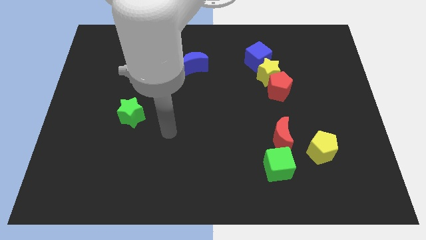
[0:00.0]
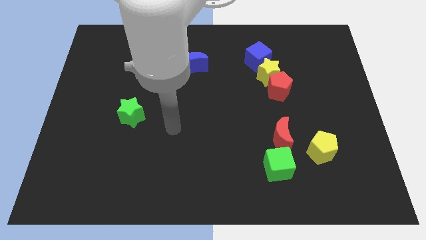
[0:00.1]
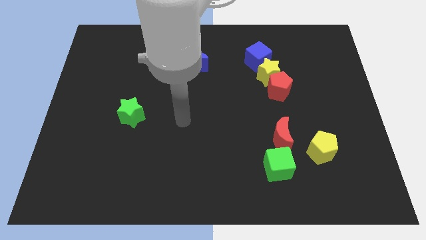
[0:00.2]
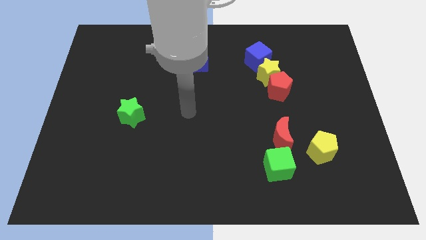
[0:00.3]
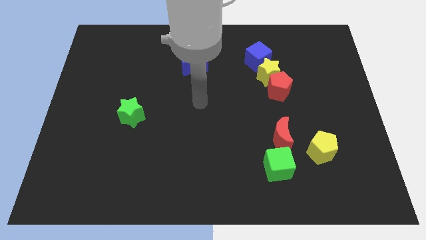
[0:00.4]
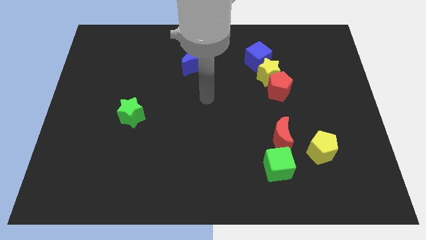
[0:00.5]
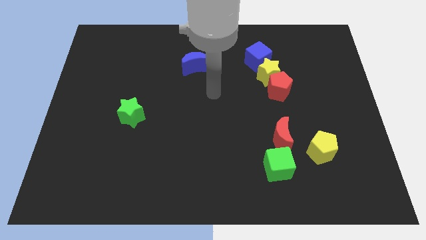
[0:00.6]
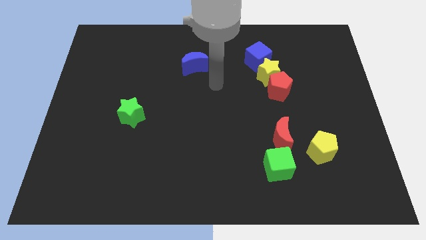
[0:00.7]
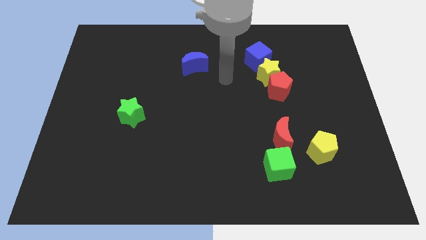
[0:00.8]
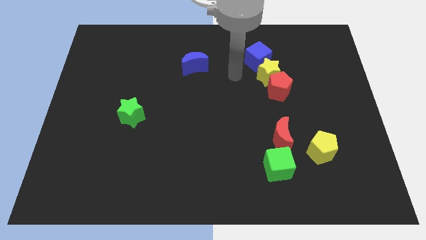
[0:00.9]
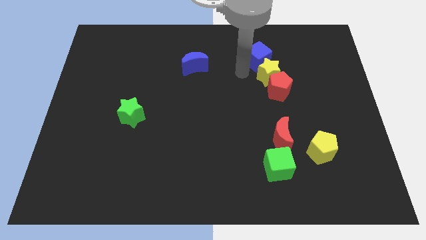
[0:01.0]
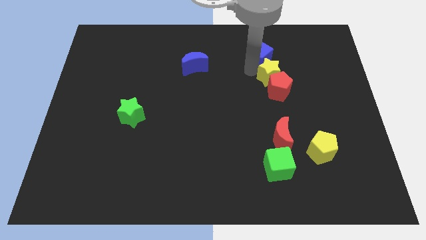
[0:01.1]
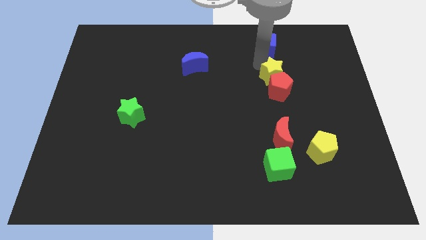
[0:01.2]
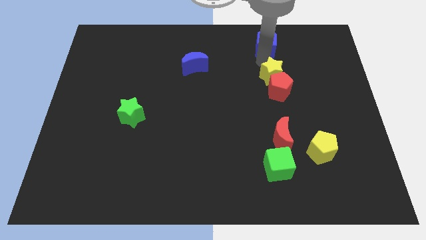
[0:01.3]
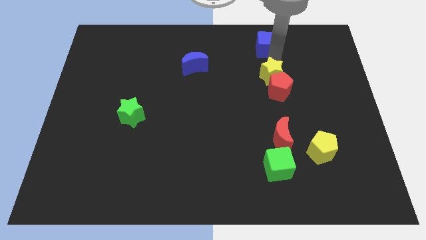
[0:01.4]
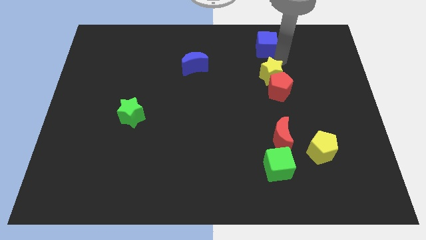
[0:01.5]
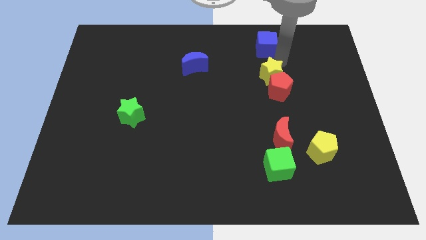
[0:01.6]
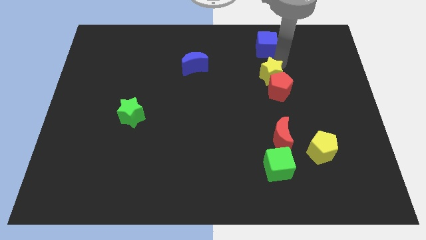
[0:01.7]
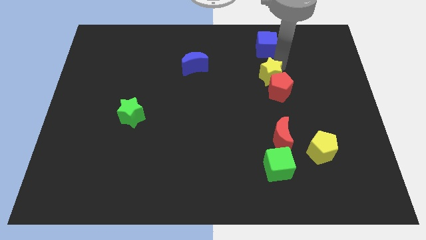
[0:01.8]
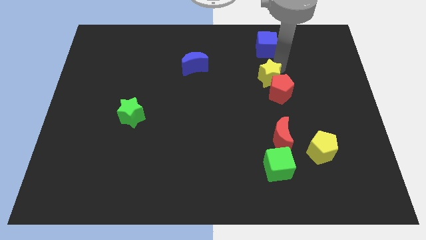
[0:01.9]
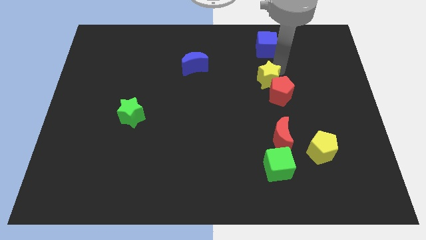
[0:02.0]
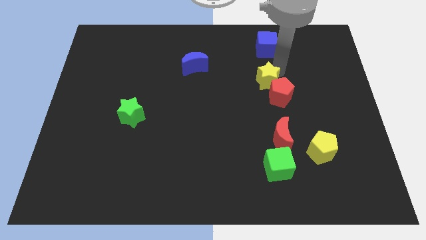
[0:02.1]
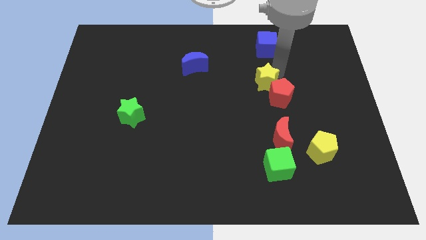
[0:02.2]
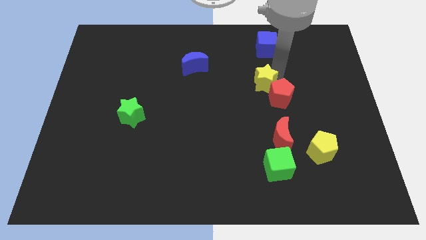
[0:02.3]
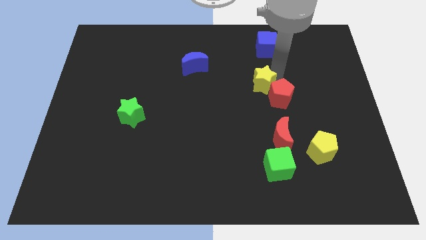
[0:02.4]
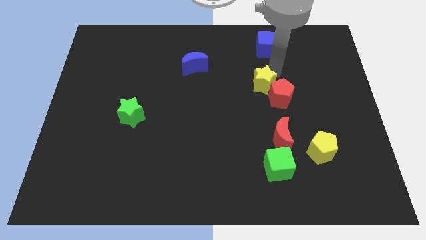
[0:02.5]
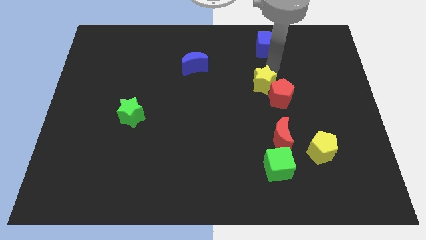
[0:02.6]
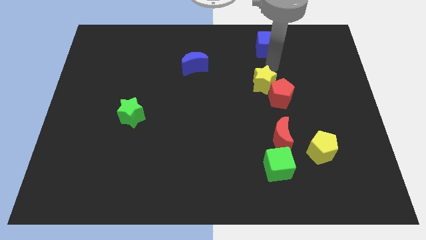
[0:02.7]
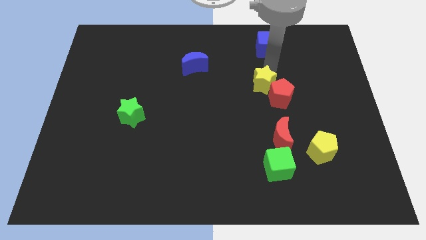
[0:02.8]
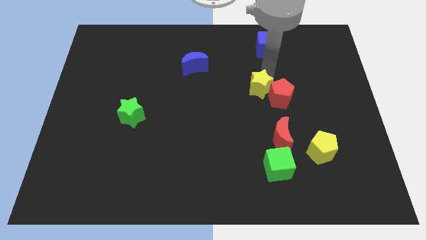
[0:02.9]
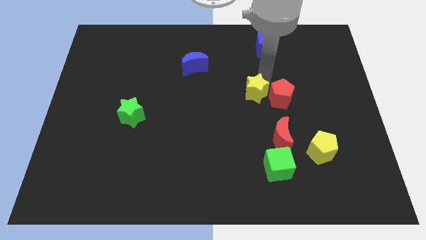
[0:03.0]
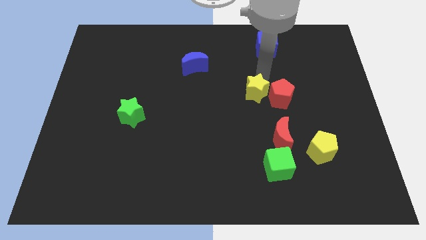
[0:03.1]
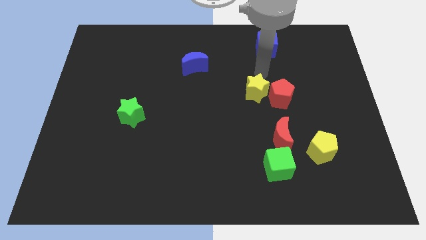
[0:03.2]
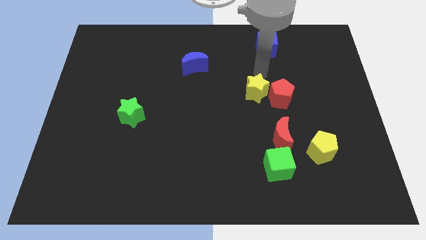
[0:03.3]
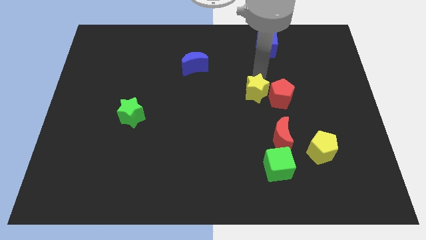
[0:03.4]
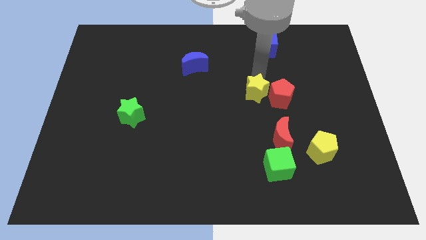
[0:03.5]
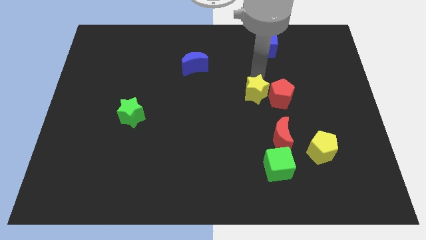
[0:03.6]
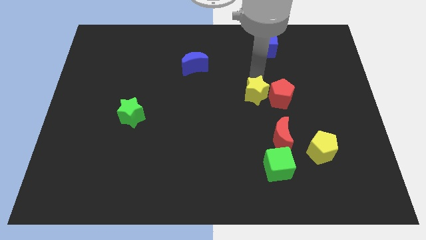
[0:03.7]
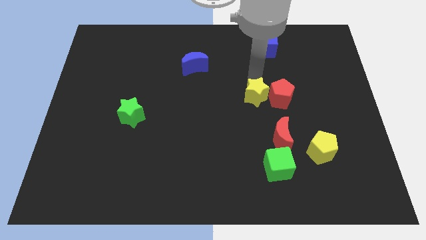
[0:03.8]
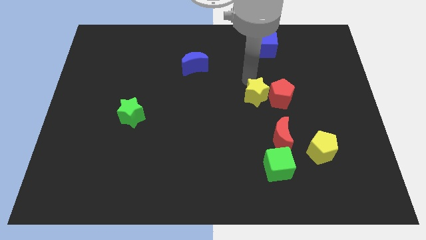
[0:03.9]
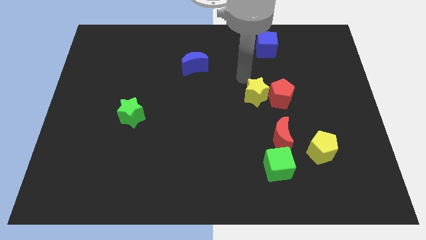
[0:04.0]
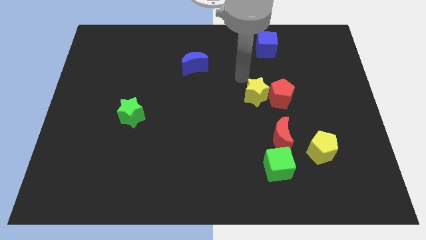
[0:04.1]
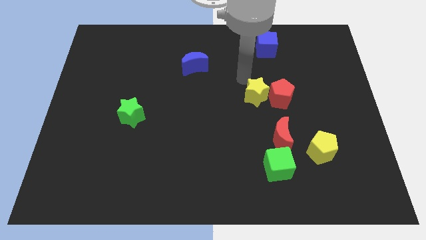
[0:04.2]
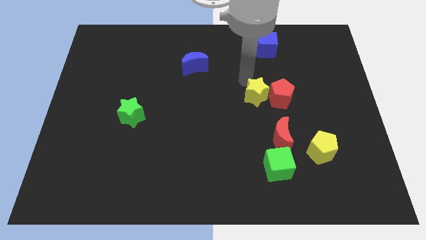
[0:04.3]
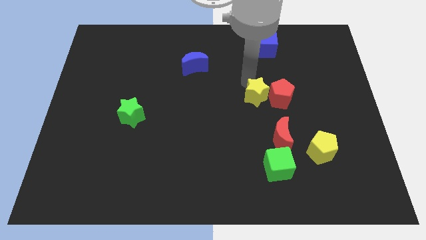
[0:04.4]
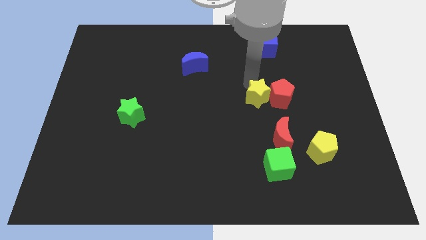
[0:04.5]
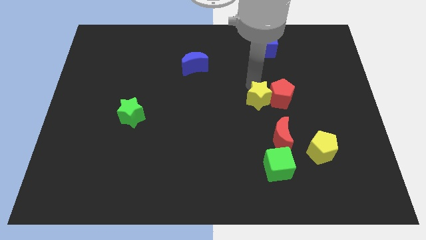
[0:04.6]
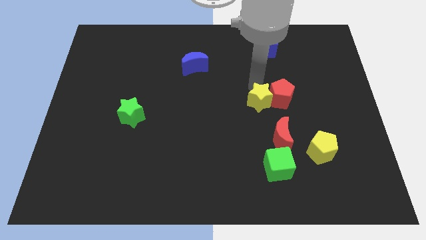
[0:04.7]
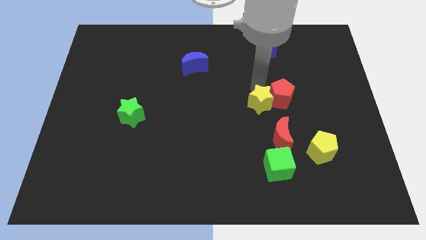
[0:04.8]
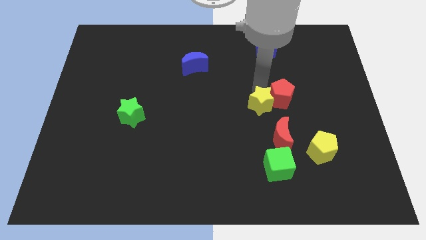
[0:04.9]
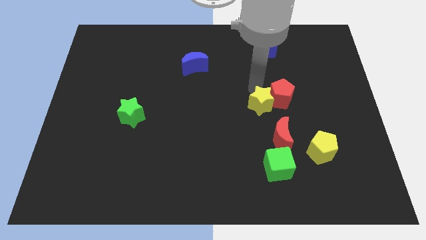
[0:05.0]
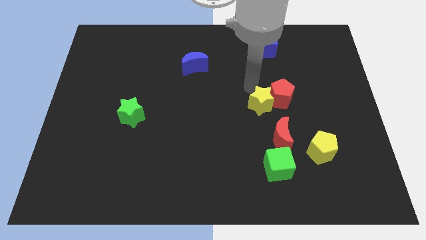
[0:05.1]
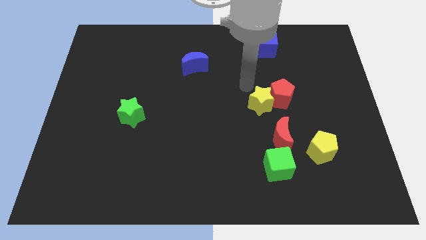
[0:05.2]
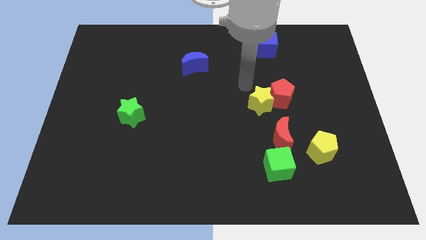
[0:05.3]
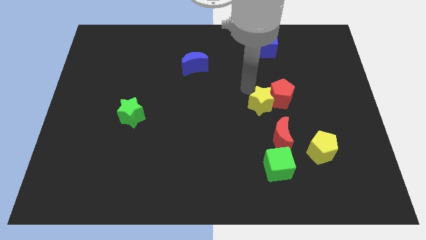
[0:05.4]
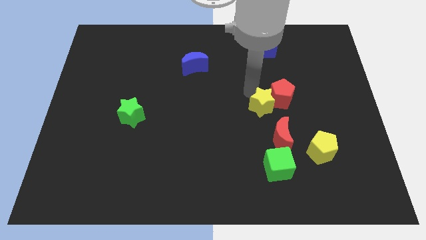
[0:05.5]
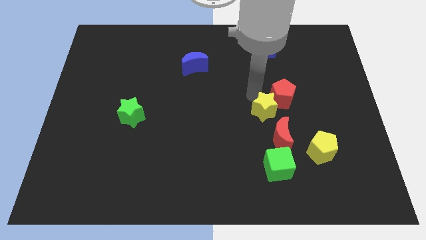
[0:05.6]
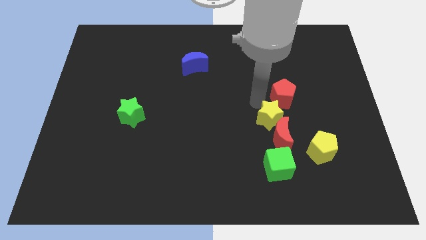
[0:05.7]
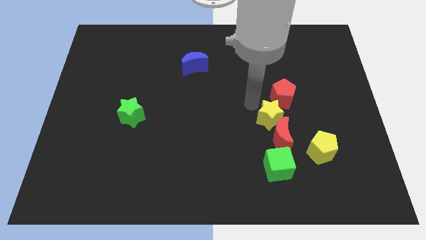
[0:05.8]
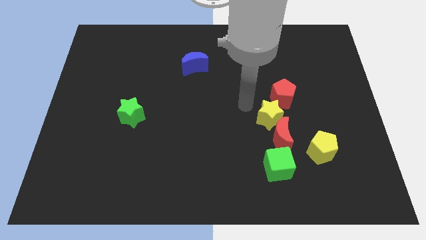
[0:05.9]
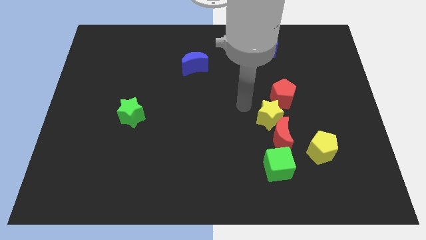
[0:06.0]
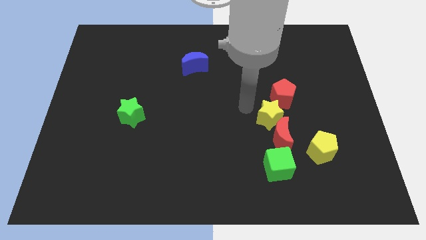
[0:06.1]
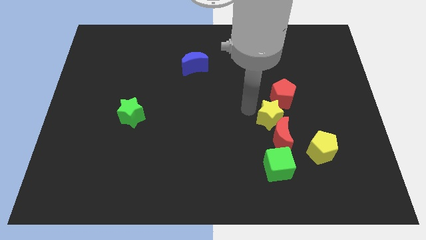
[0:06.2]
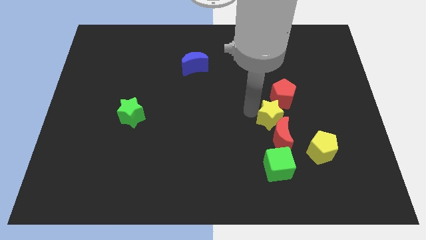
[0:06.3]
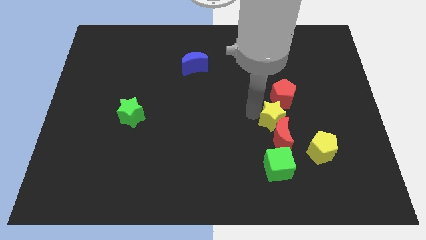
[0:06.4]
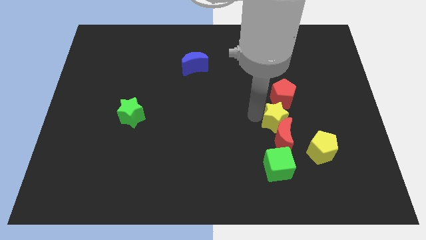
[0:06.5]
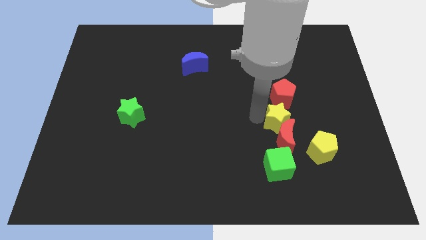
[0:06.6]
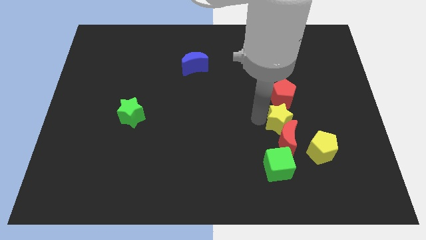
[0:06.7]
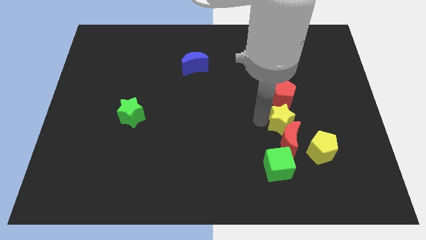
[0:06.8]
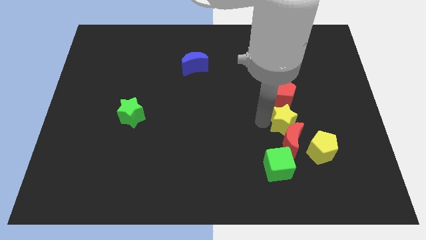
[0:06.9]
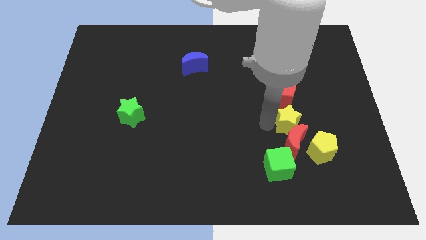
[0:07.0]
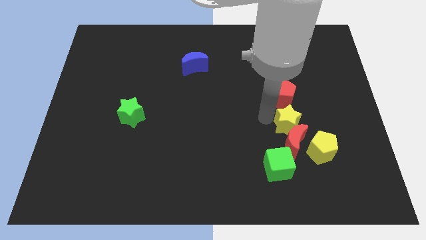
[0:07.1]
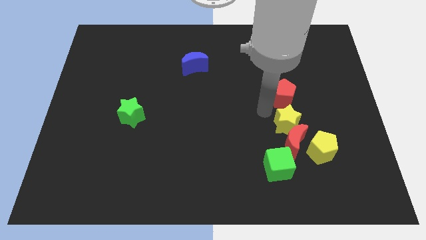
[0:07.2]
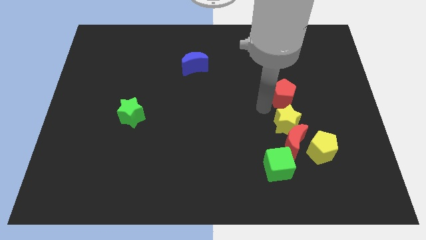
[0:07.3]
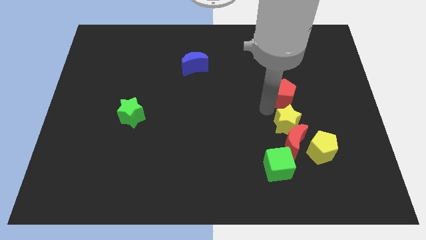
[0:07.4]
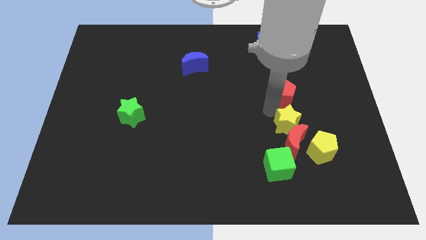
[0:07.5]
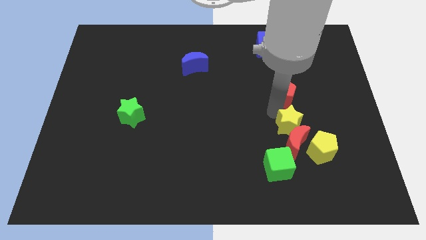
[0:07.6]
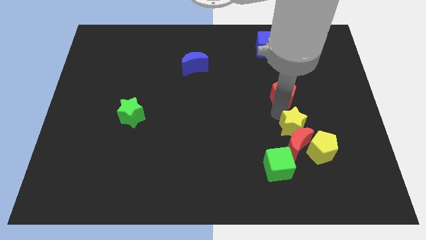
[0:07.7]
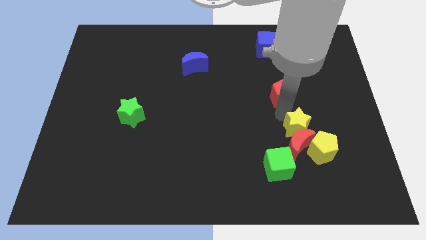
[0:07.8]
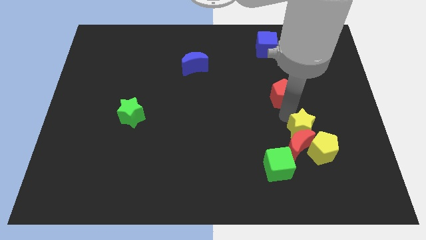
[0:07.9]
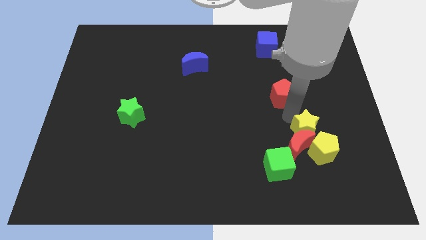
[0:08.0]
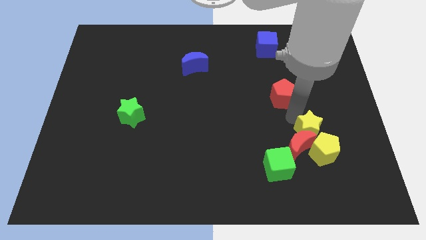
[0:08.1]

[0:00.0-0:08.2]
put the yellow star towards the yellow pentagon

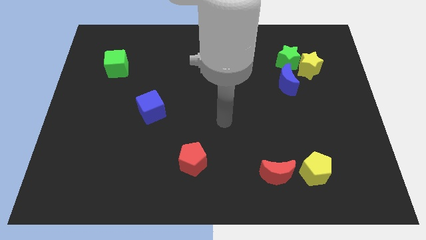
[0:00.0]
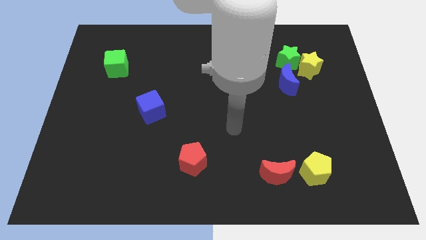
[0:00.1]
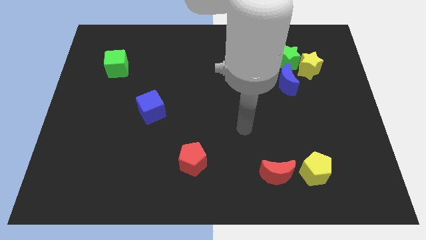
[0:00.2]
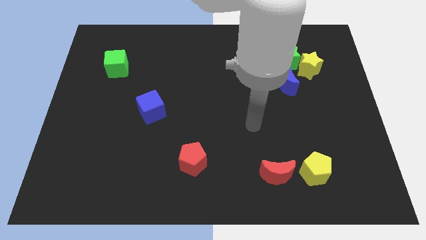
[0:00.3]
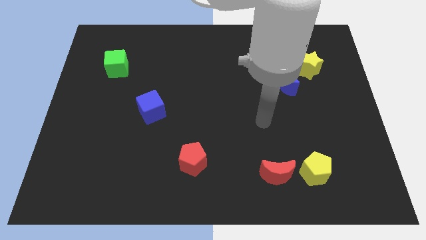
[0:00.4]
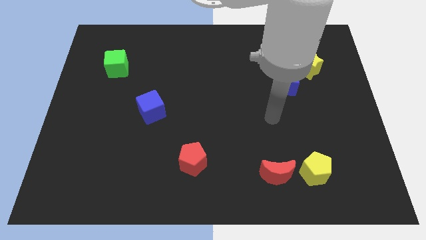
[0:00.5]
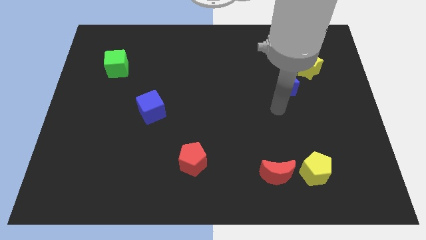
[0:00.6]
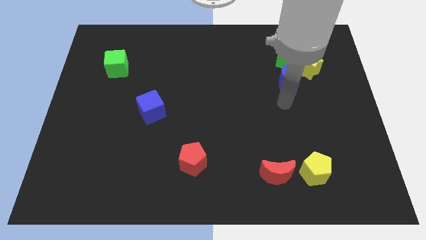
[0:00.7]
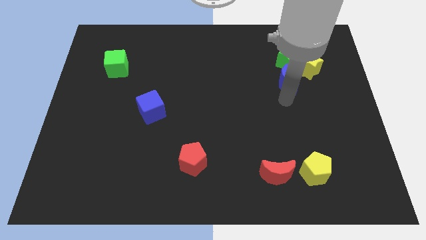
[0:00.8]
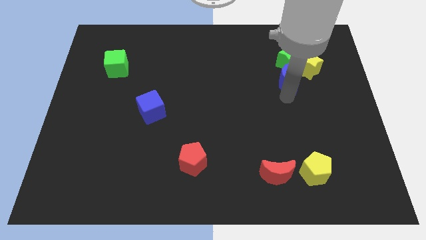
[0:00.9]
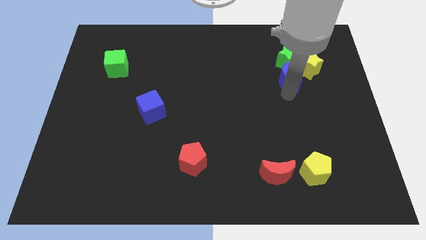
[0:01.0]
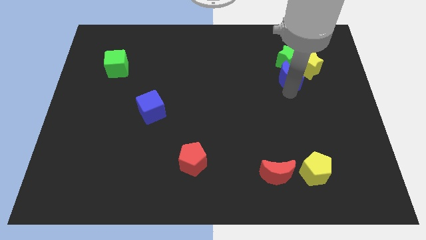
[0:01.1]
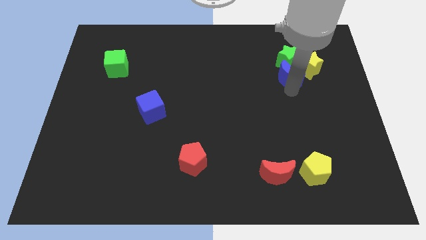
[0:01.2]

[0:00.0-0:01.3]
slide the blue moon towards the green star
